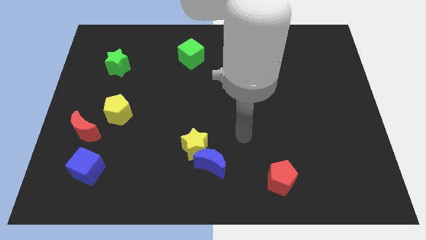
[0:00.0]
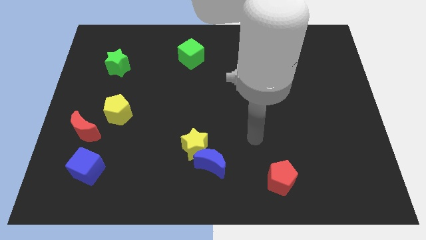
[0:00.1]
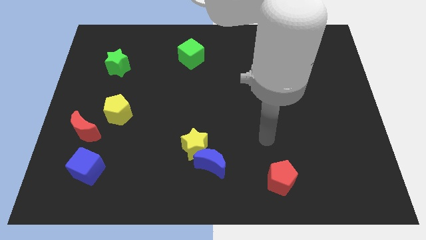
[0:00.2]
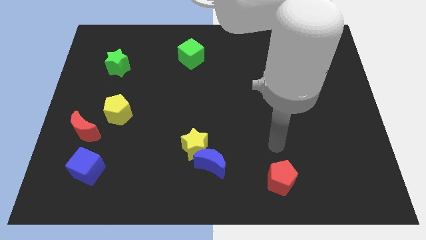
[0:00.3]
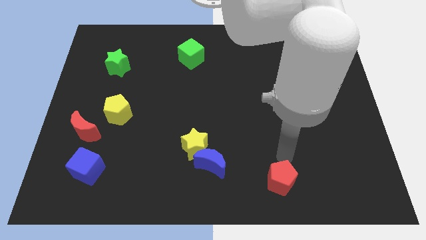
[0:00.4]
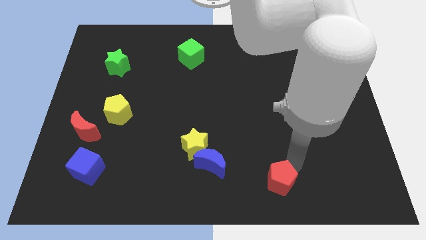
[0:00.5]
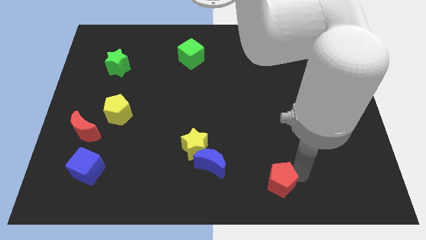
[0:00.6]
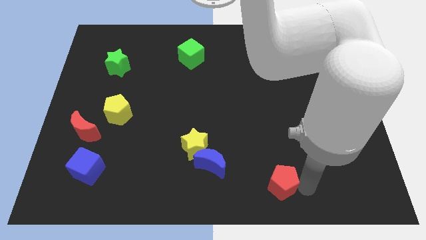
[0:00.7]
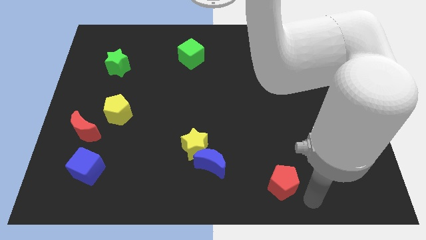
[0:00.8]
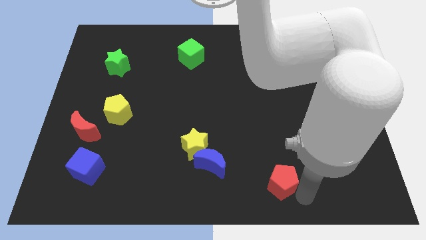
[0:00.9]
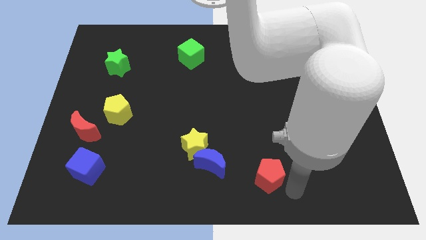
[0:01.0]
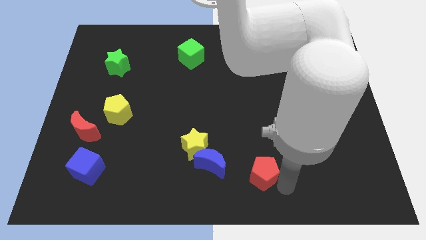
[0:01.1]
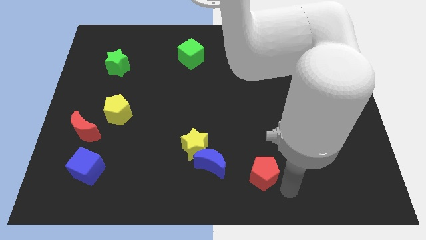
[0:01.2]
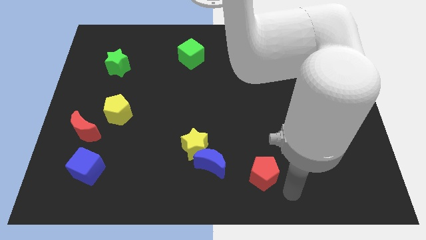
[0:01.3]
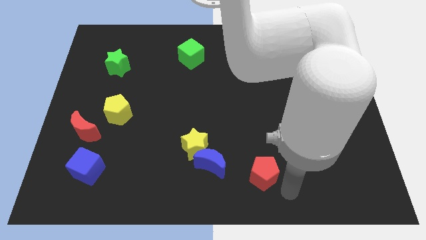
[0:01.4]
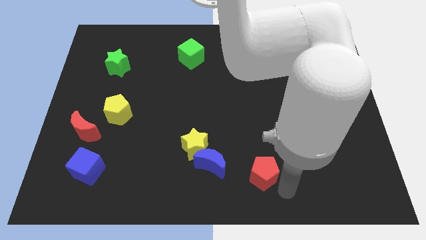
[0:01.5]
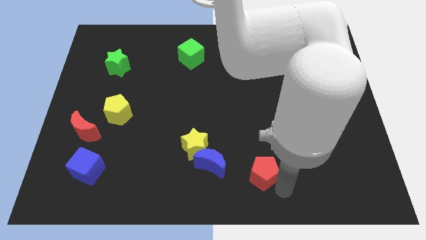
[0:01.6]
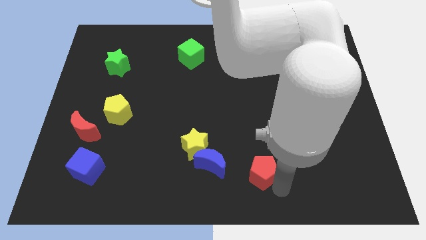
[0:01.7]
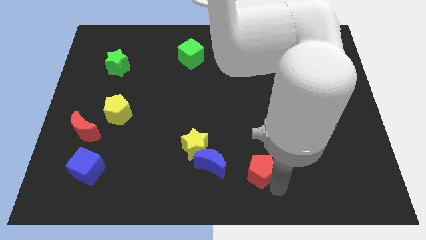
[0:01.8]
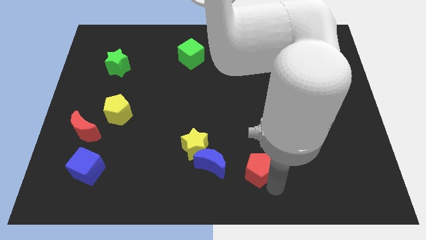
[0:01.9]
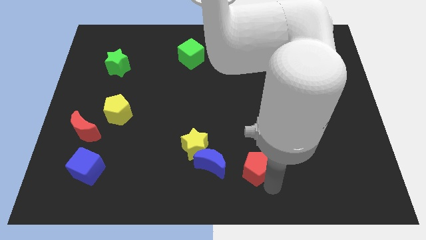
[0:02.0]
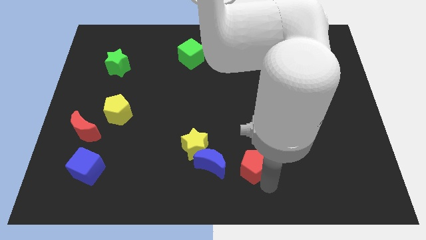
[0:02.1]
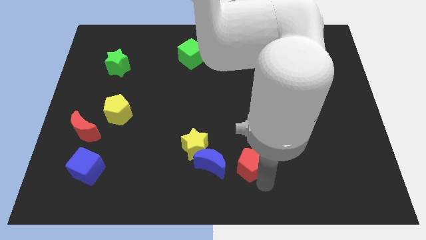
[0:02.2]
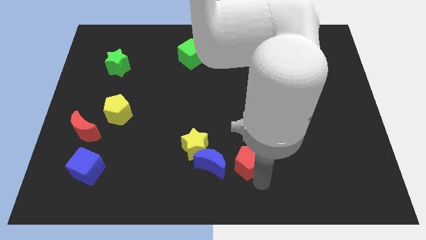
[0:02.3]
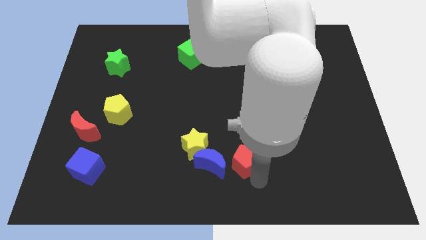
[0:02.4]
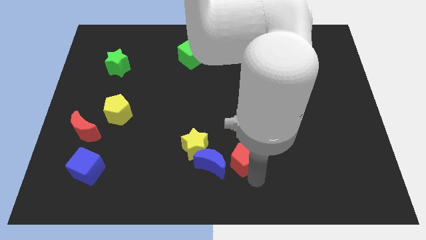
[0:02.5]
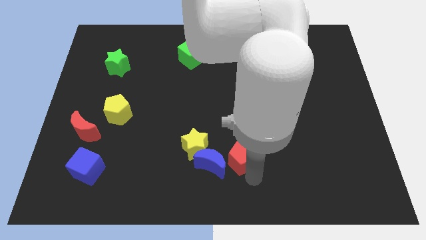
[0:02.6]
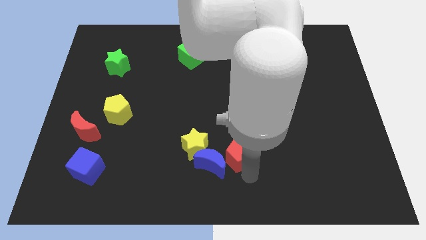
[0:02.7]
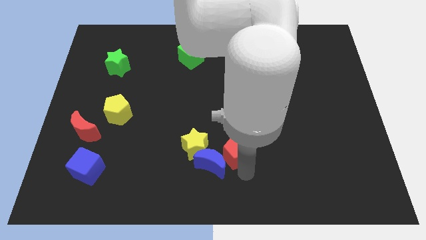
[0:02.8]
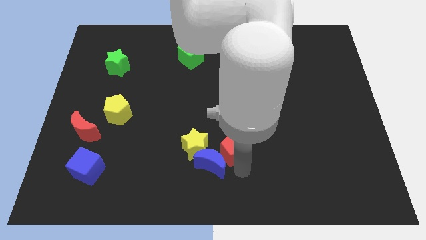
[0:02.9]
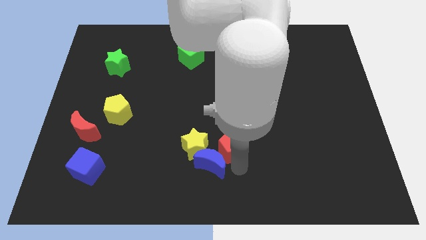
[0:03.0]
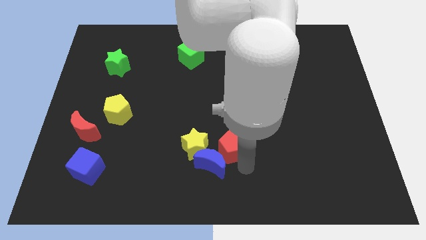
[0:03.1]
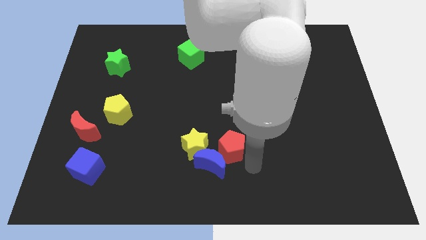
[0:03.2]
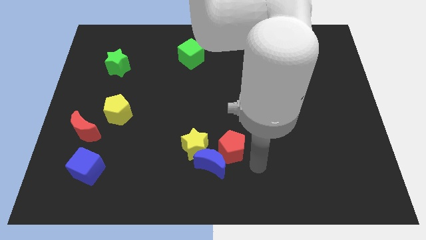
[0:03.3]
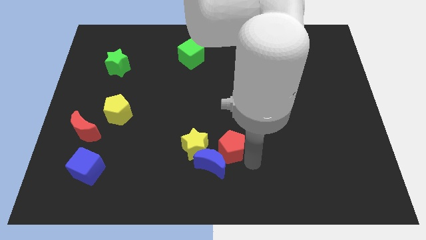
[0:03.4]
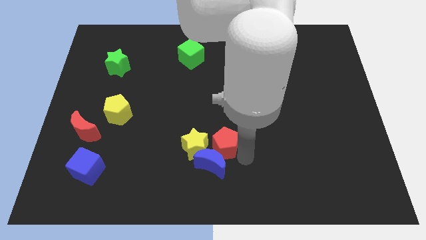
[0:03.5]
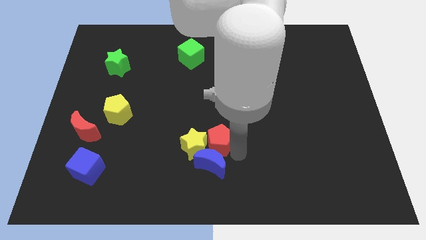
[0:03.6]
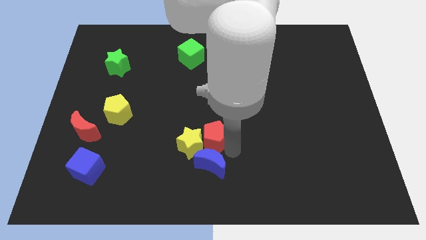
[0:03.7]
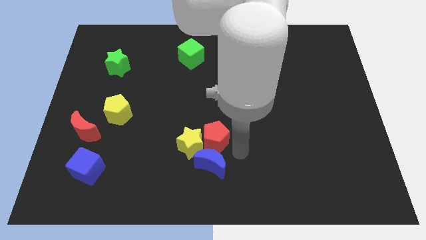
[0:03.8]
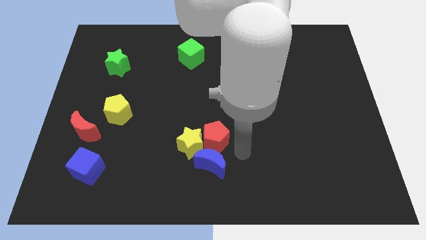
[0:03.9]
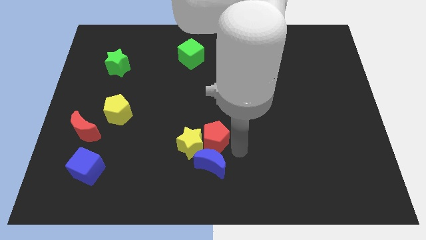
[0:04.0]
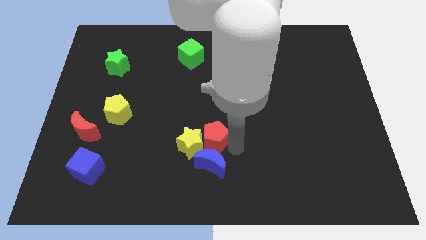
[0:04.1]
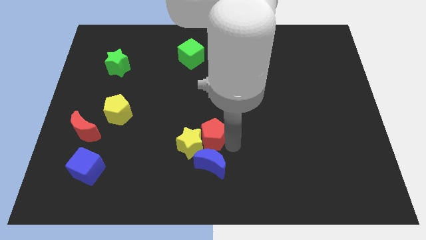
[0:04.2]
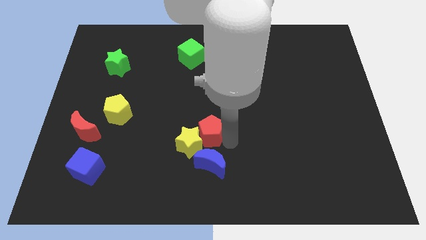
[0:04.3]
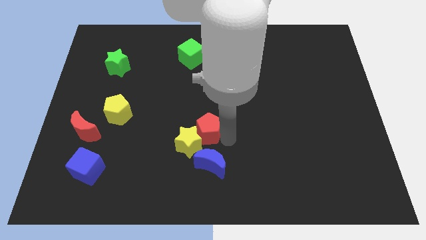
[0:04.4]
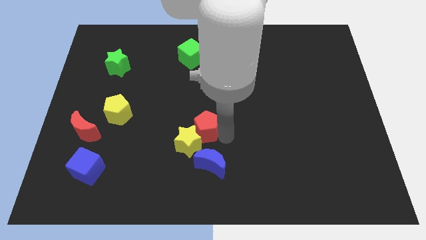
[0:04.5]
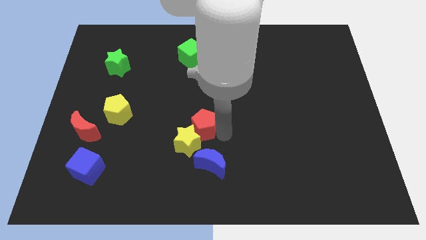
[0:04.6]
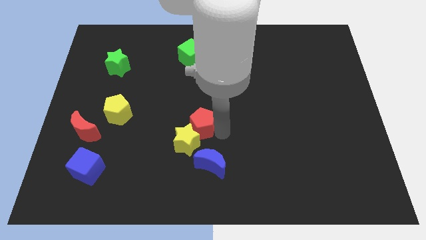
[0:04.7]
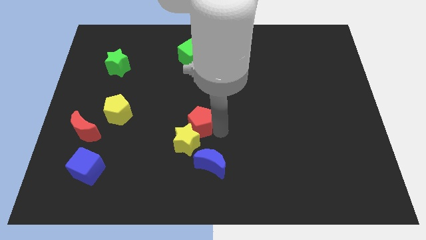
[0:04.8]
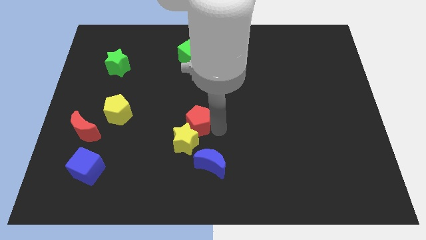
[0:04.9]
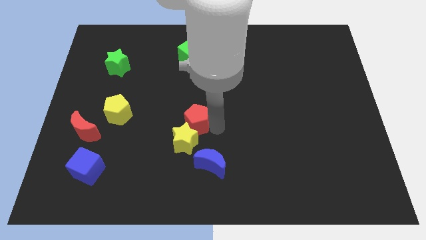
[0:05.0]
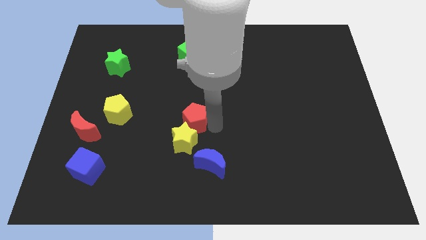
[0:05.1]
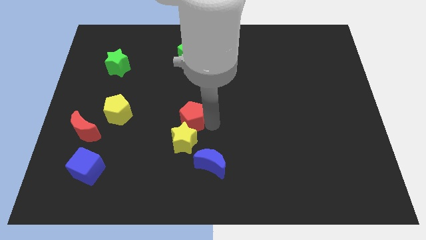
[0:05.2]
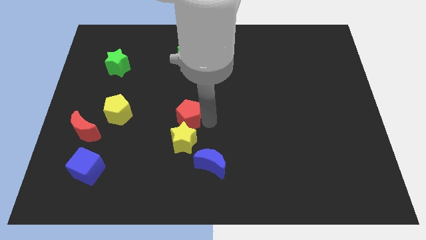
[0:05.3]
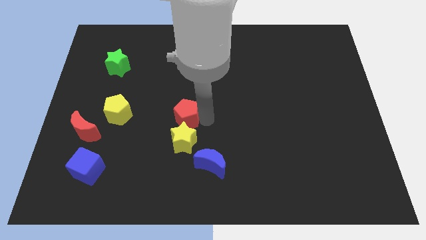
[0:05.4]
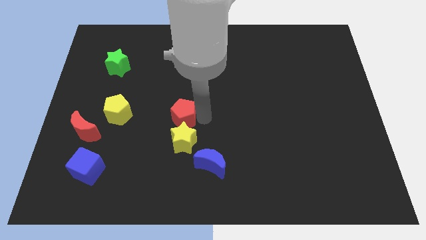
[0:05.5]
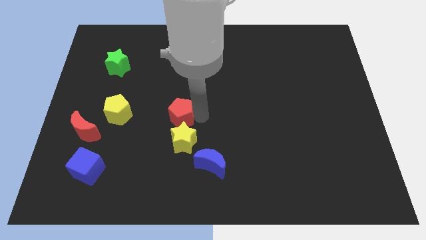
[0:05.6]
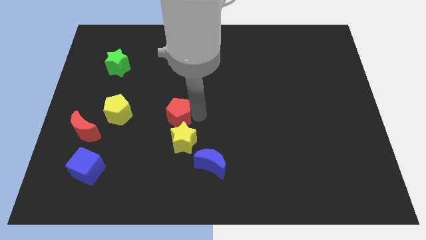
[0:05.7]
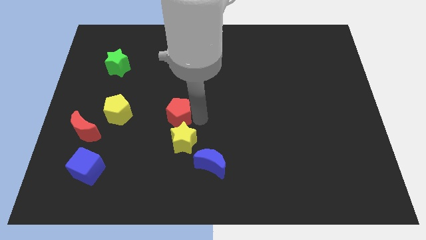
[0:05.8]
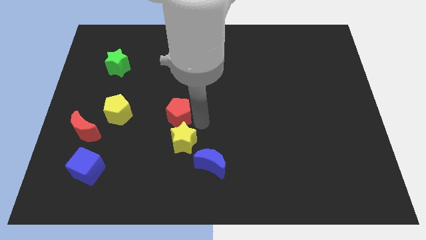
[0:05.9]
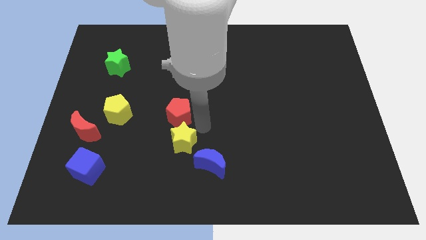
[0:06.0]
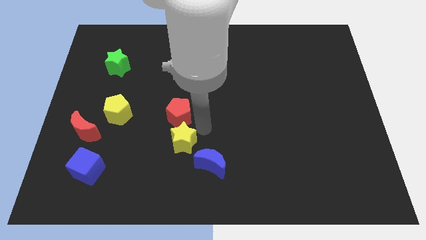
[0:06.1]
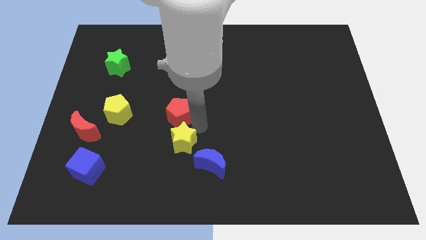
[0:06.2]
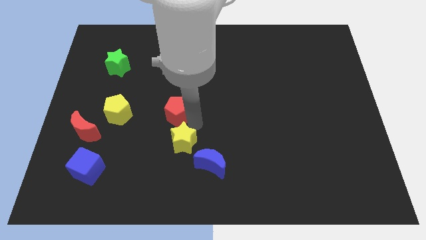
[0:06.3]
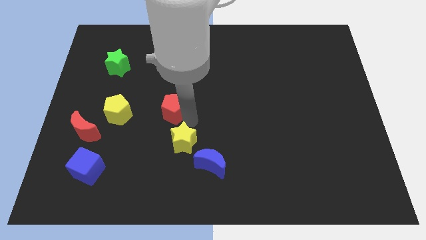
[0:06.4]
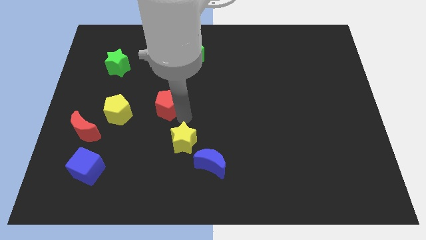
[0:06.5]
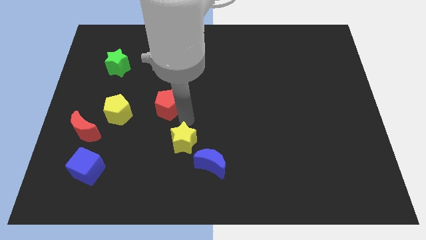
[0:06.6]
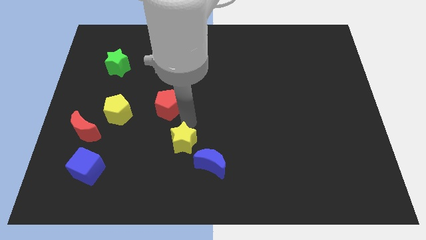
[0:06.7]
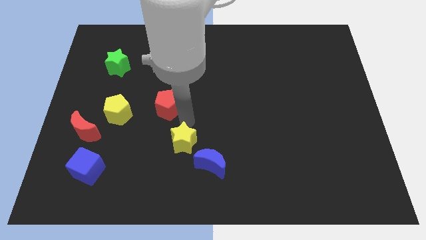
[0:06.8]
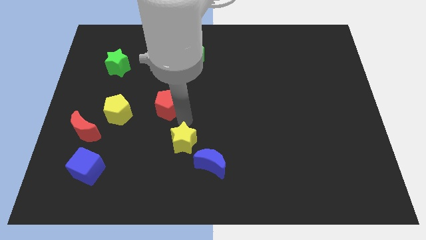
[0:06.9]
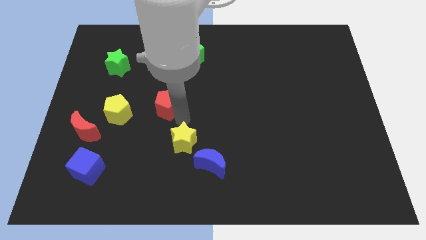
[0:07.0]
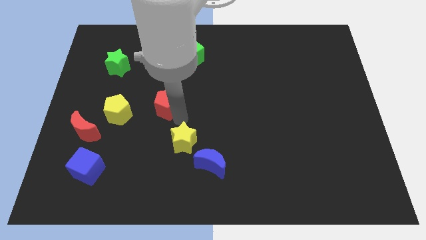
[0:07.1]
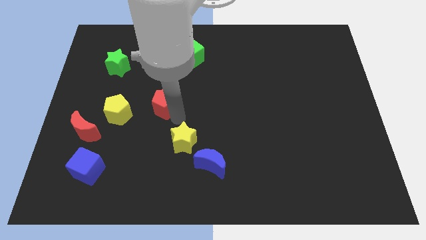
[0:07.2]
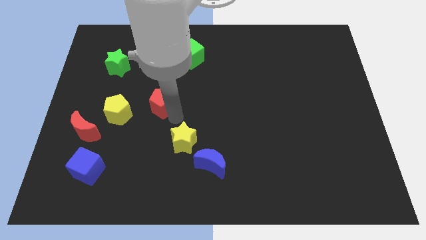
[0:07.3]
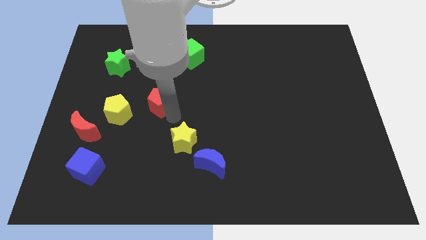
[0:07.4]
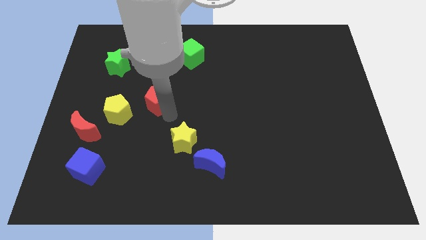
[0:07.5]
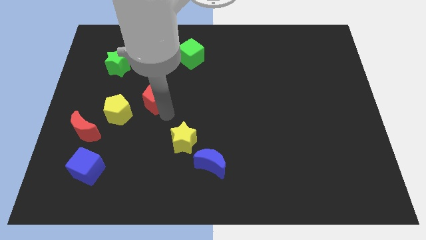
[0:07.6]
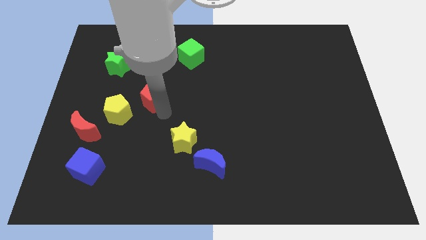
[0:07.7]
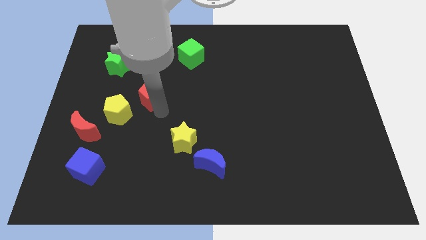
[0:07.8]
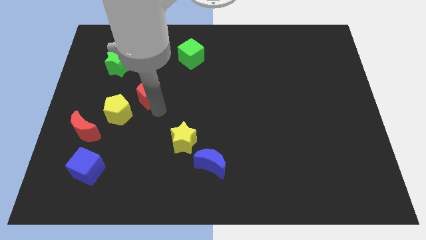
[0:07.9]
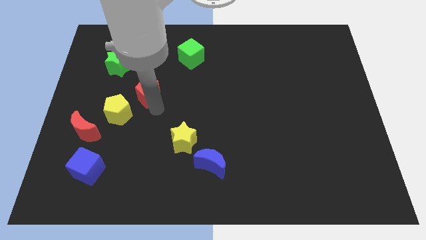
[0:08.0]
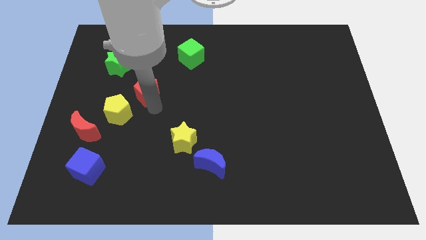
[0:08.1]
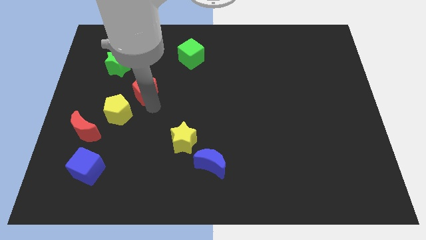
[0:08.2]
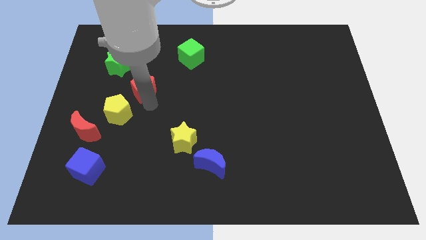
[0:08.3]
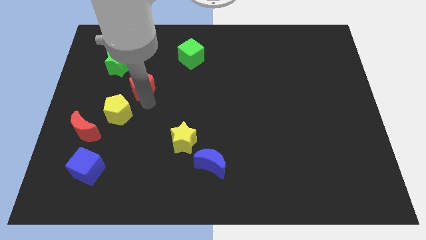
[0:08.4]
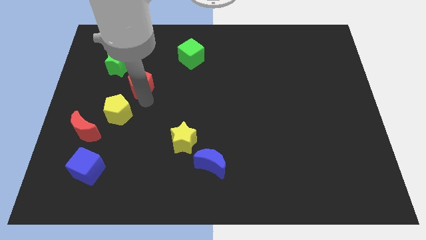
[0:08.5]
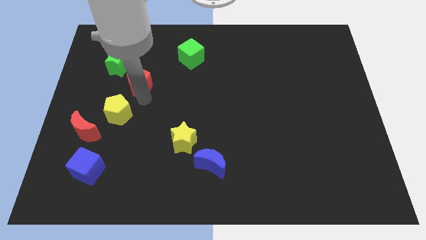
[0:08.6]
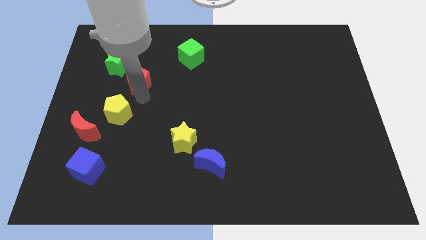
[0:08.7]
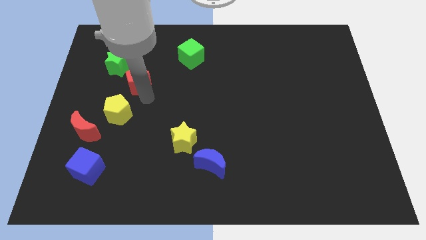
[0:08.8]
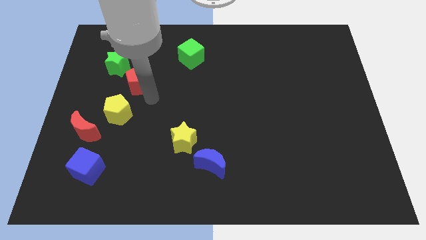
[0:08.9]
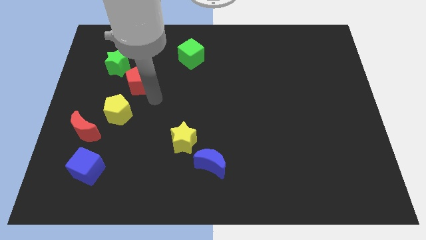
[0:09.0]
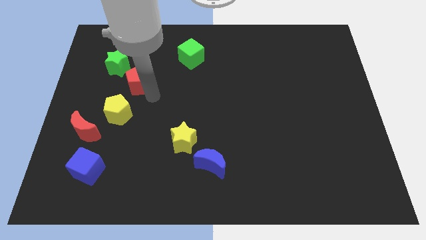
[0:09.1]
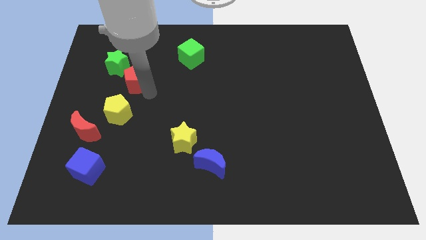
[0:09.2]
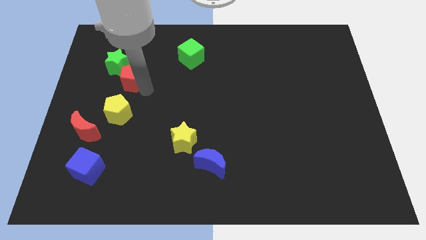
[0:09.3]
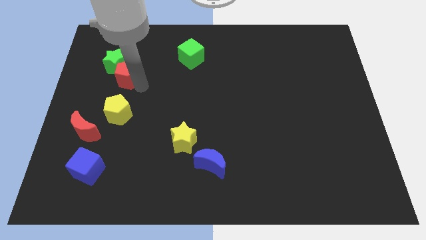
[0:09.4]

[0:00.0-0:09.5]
push the red pentagon next to the green star
